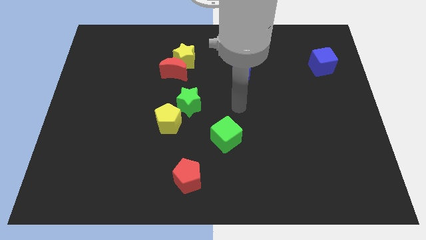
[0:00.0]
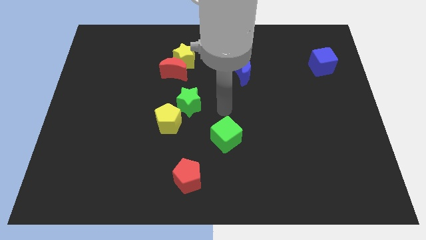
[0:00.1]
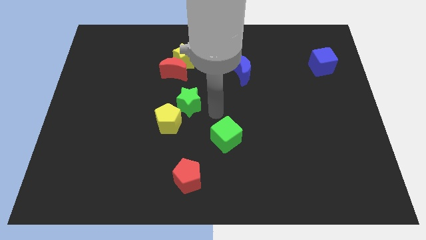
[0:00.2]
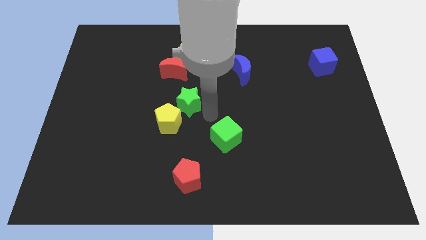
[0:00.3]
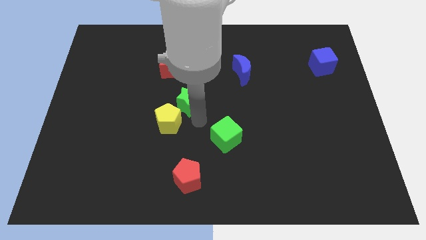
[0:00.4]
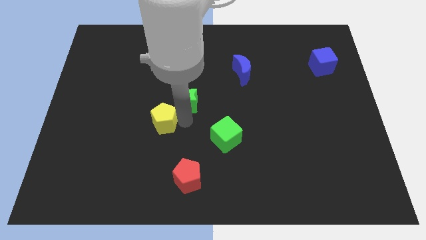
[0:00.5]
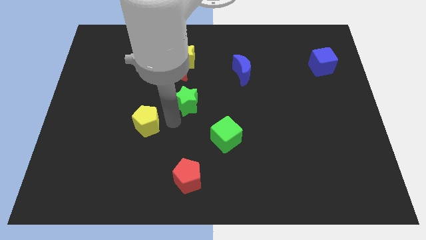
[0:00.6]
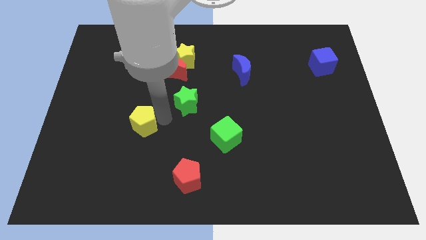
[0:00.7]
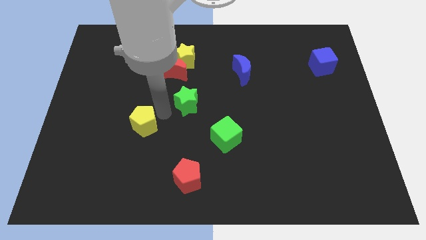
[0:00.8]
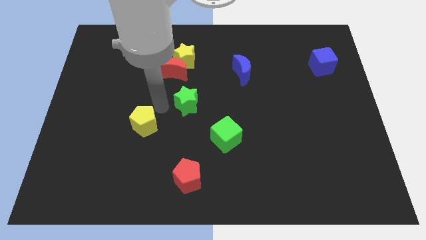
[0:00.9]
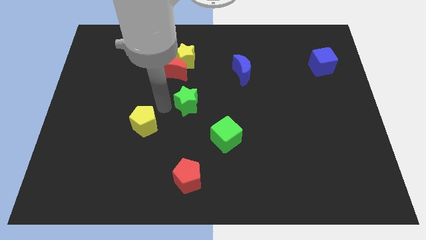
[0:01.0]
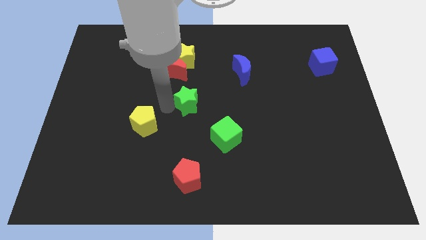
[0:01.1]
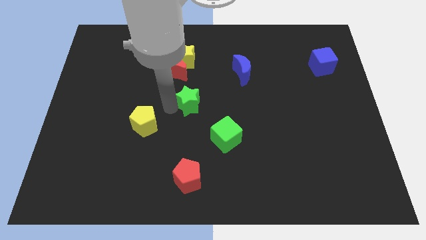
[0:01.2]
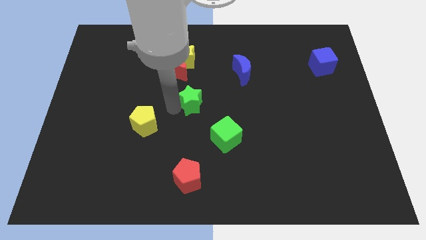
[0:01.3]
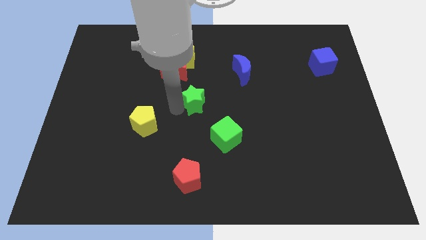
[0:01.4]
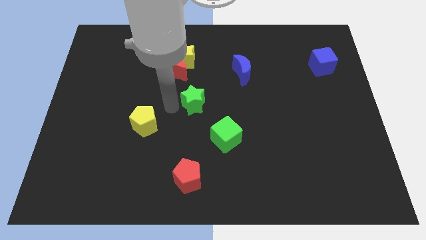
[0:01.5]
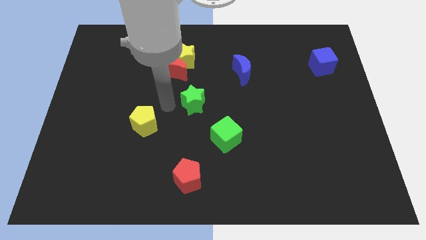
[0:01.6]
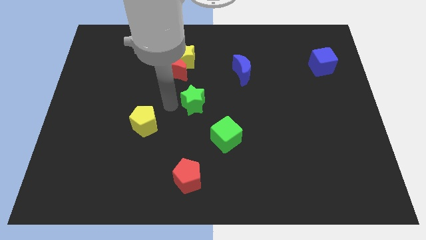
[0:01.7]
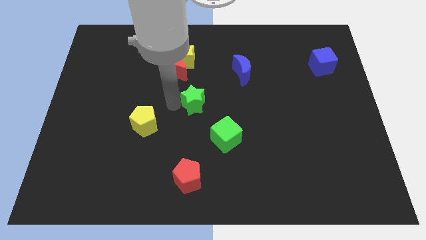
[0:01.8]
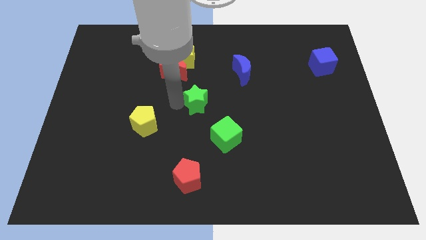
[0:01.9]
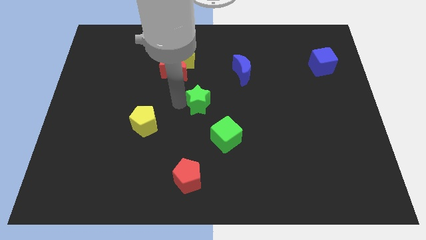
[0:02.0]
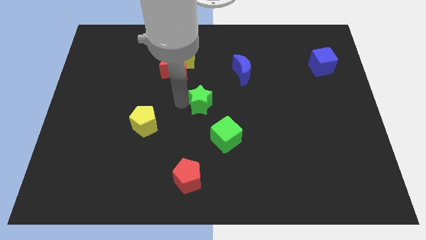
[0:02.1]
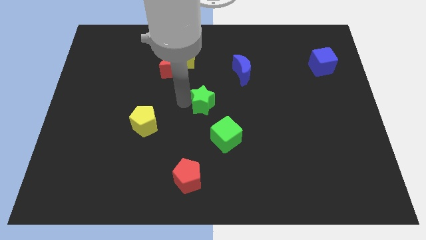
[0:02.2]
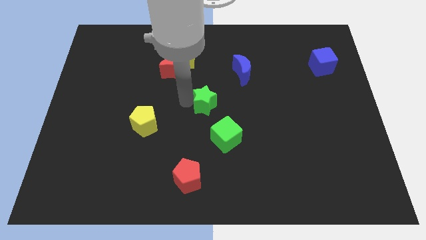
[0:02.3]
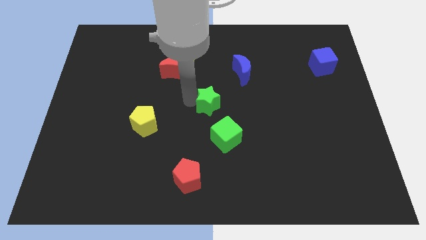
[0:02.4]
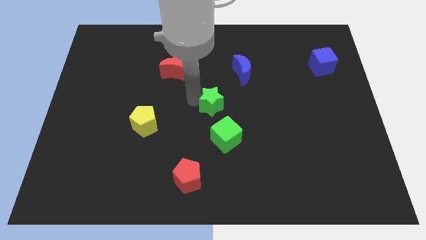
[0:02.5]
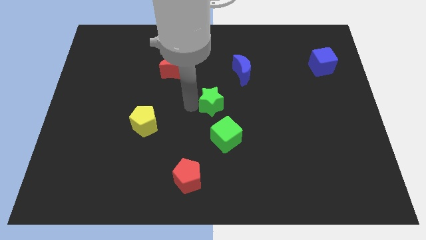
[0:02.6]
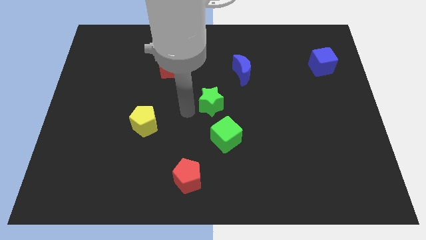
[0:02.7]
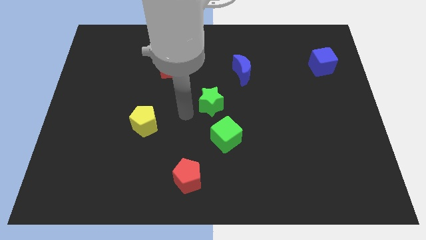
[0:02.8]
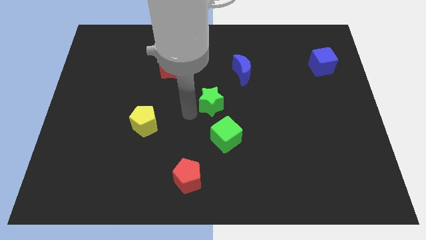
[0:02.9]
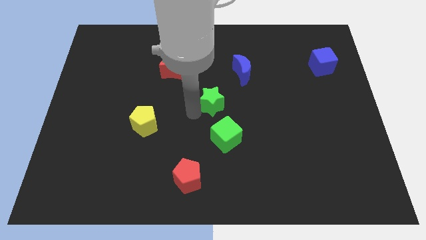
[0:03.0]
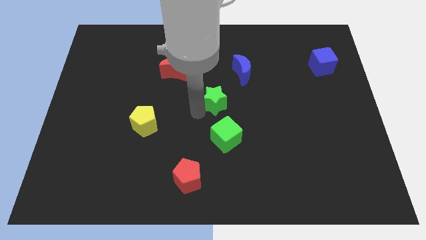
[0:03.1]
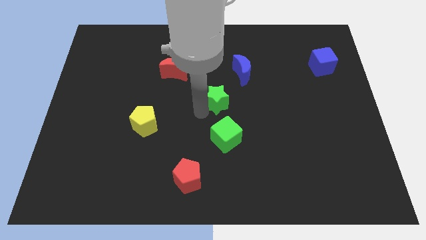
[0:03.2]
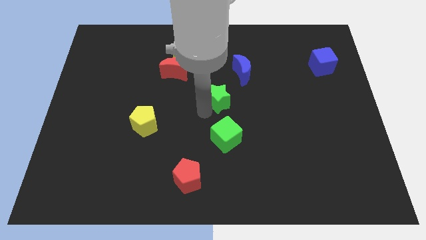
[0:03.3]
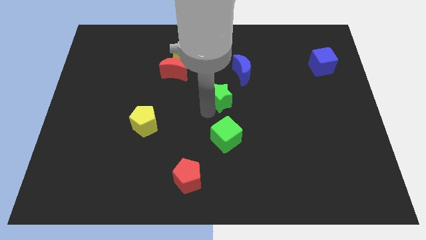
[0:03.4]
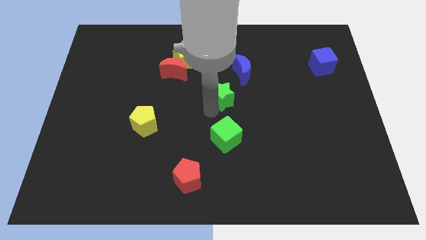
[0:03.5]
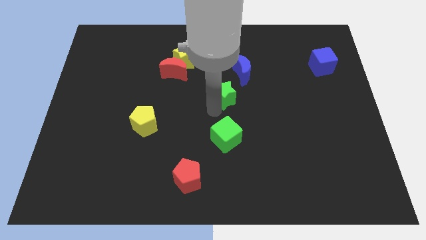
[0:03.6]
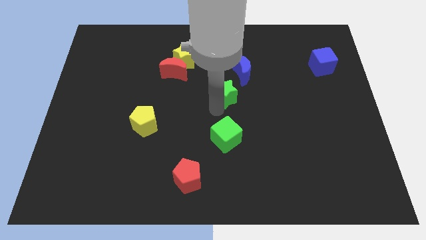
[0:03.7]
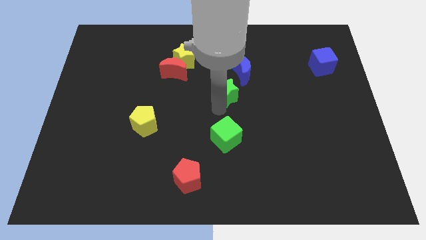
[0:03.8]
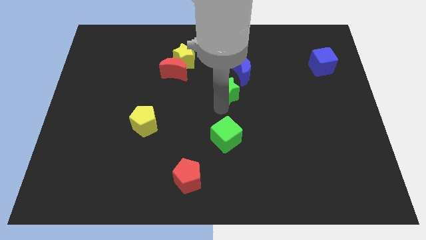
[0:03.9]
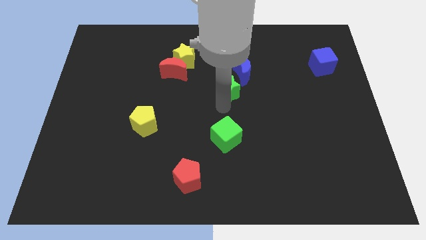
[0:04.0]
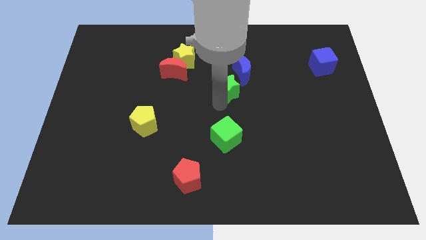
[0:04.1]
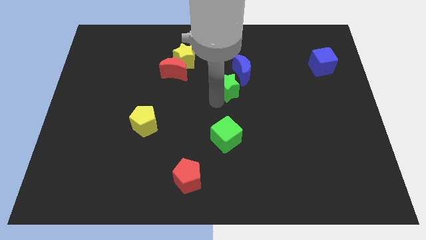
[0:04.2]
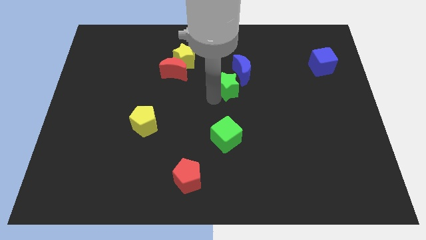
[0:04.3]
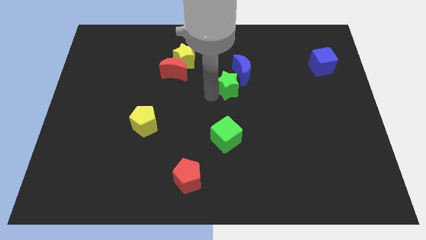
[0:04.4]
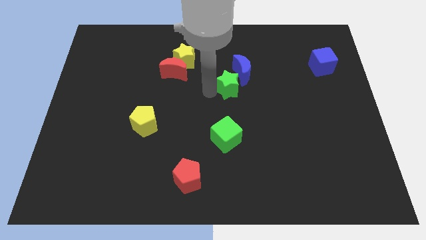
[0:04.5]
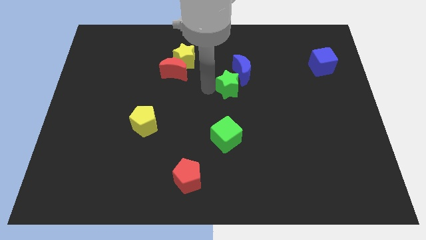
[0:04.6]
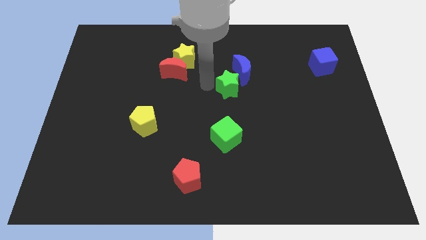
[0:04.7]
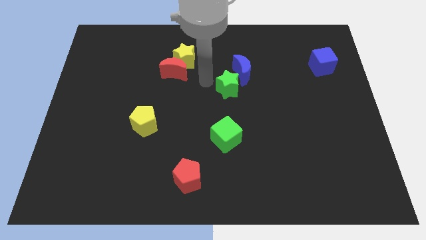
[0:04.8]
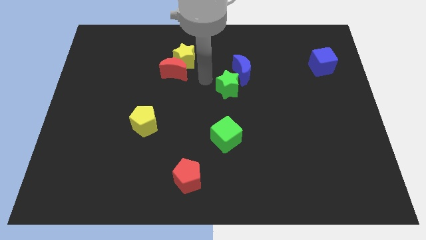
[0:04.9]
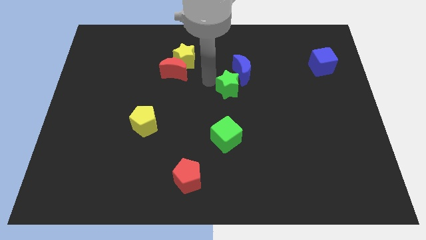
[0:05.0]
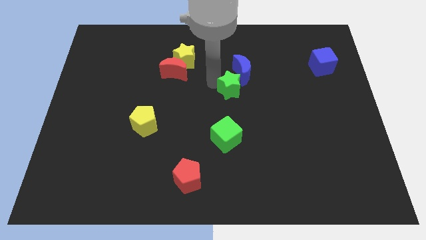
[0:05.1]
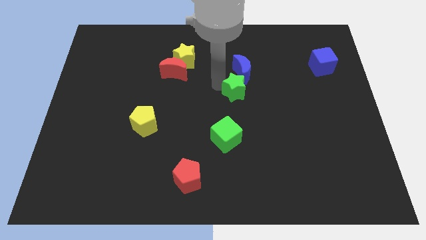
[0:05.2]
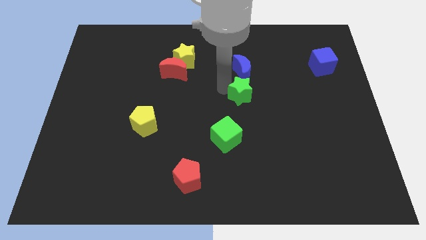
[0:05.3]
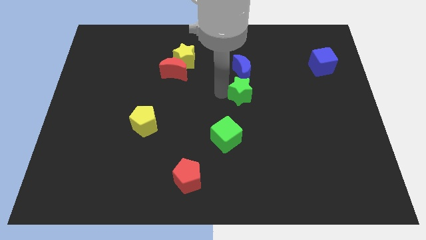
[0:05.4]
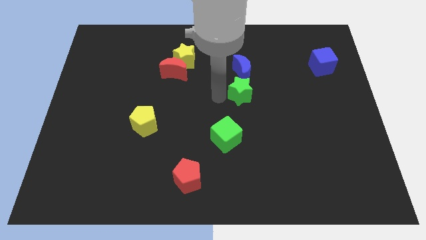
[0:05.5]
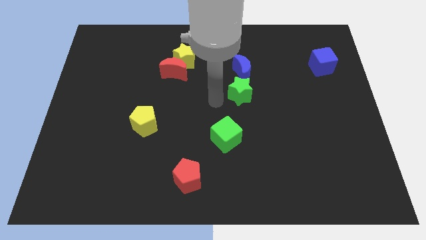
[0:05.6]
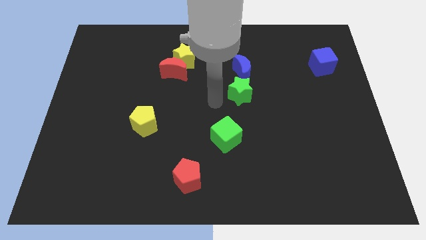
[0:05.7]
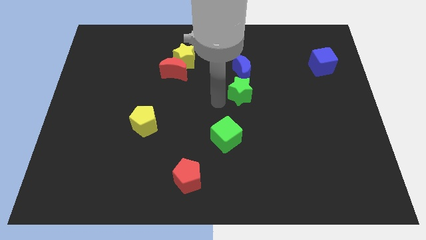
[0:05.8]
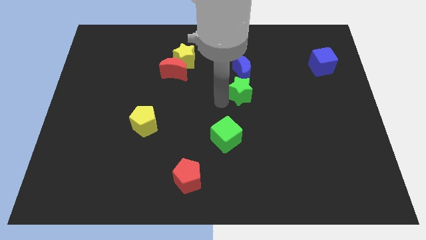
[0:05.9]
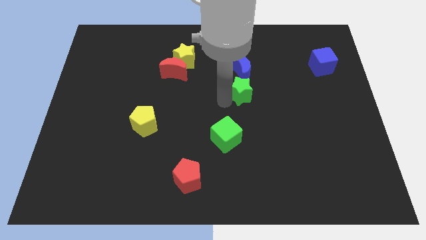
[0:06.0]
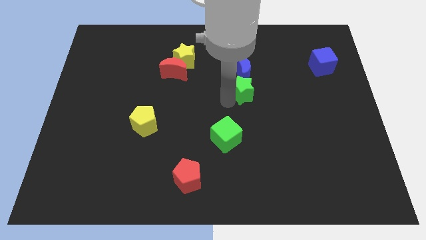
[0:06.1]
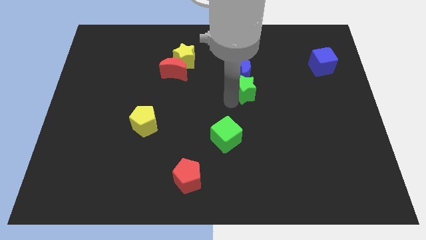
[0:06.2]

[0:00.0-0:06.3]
slide the green star diagonally down and to the right of the blue moon
